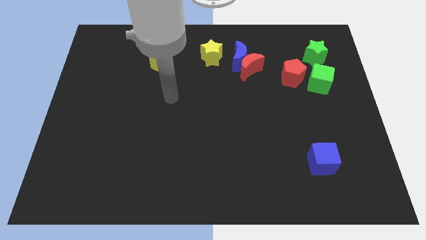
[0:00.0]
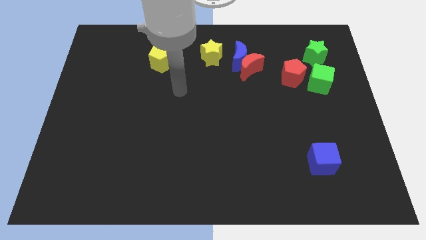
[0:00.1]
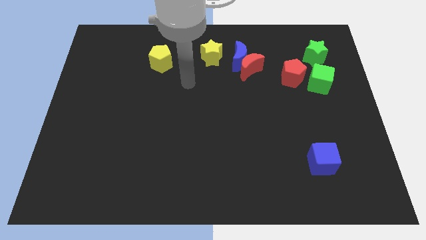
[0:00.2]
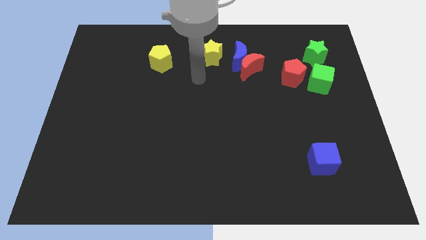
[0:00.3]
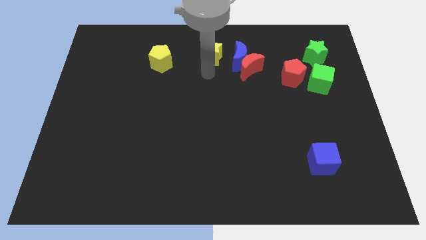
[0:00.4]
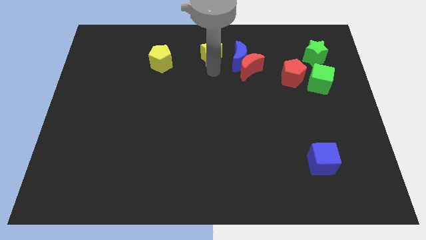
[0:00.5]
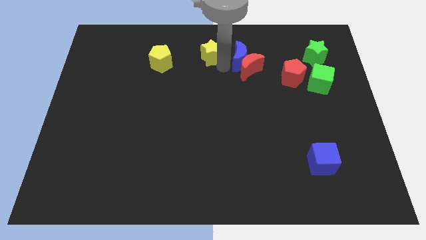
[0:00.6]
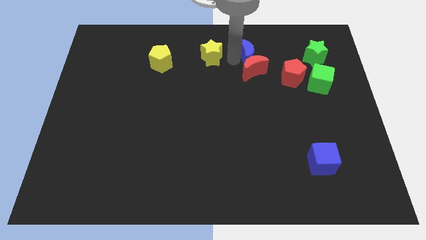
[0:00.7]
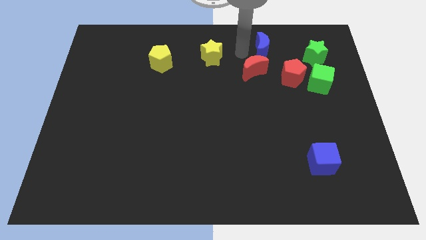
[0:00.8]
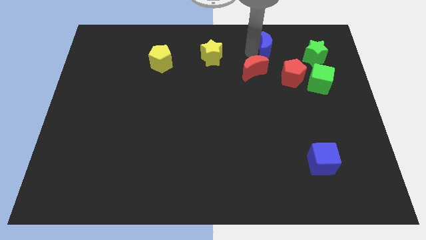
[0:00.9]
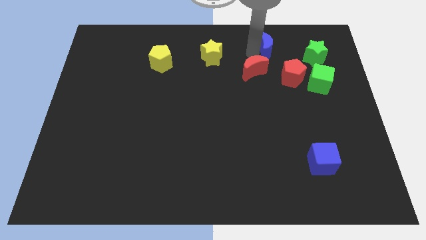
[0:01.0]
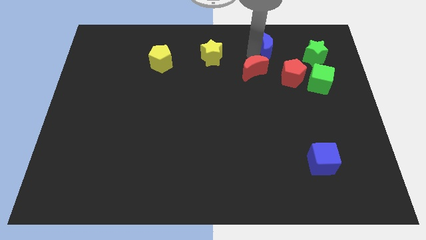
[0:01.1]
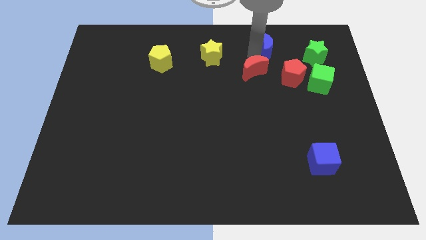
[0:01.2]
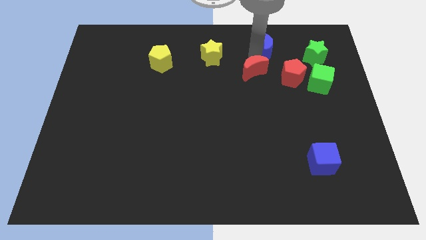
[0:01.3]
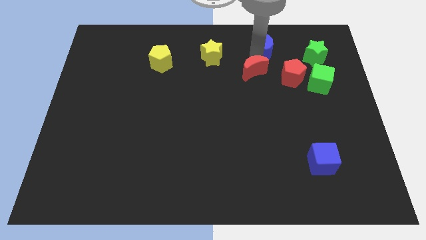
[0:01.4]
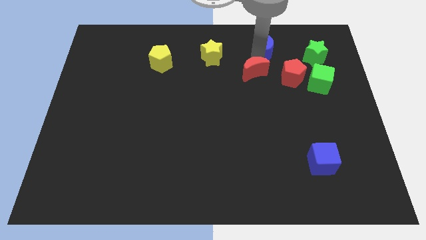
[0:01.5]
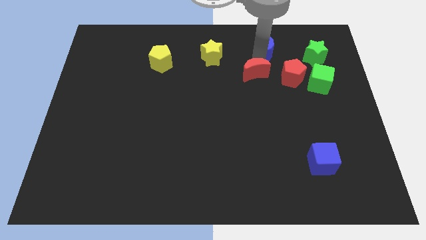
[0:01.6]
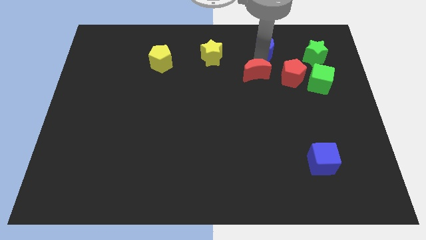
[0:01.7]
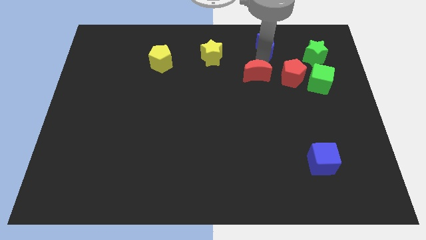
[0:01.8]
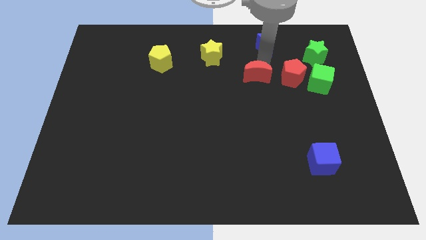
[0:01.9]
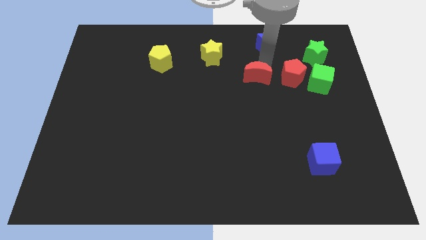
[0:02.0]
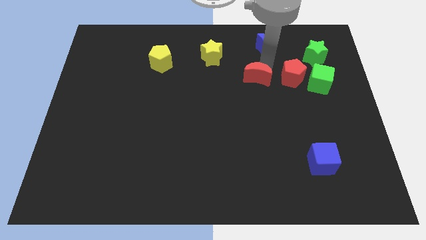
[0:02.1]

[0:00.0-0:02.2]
separate the red moon from the blue moon

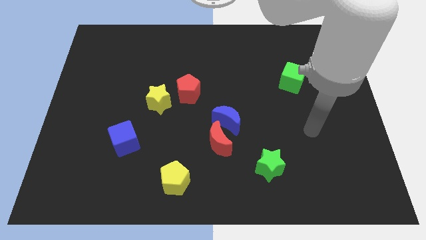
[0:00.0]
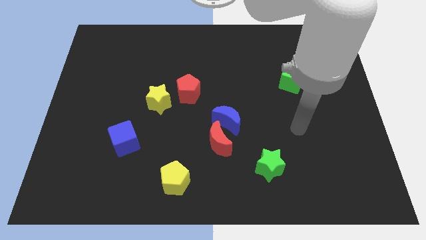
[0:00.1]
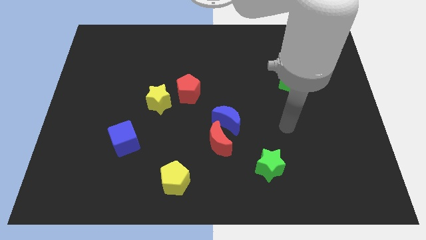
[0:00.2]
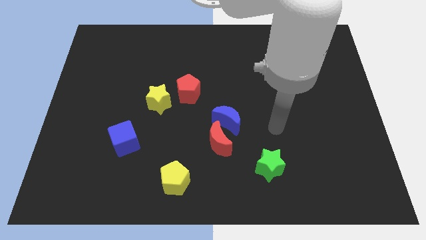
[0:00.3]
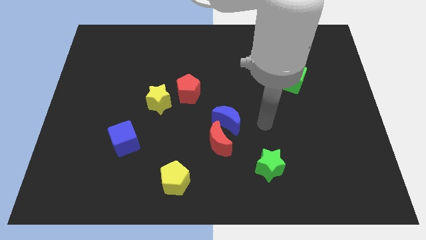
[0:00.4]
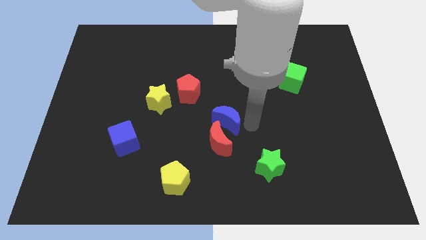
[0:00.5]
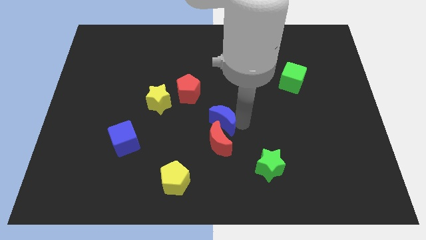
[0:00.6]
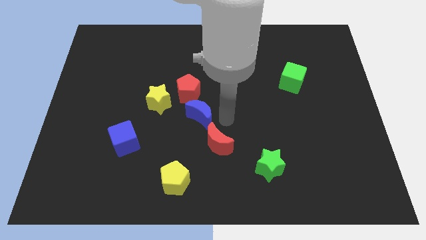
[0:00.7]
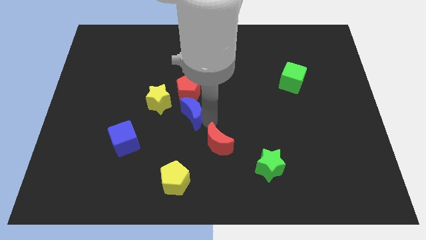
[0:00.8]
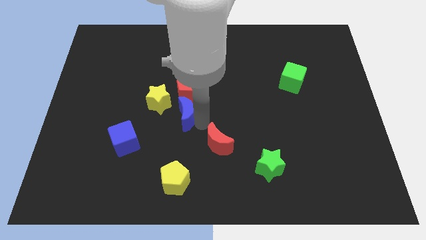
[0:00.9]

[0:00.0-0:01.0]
move the red moon away from the blue moon

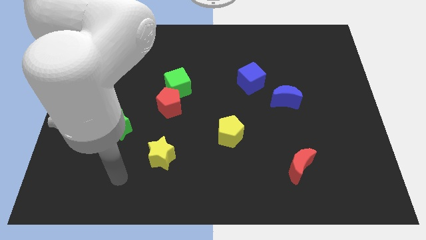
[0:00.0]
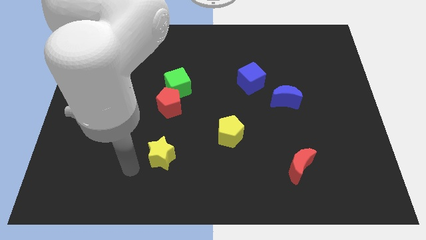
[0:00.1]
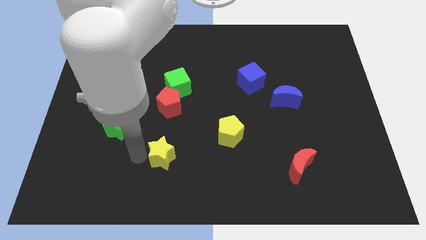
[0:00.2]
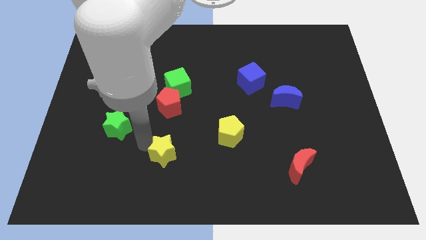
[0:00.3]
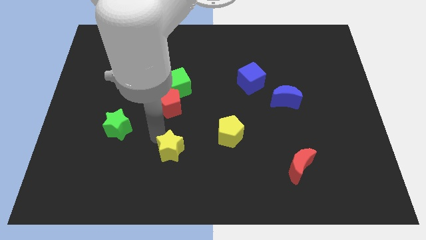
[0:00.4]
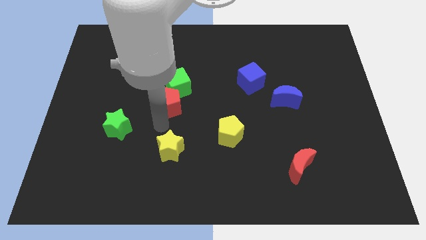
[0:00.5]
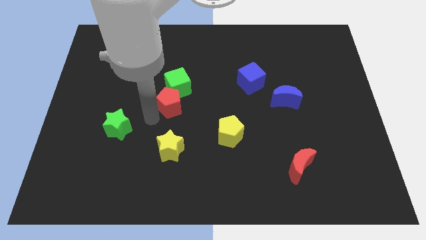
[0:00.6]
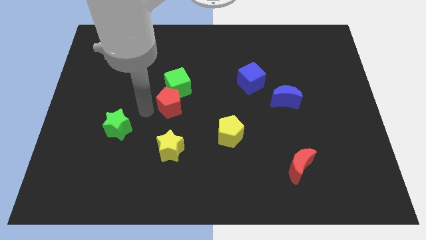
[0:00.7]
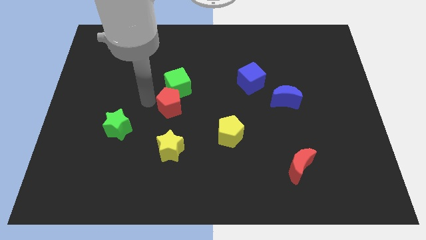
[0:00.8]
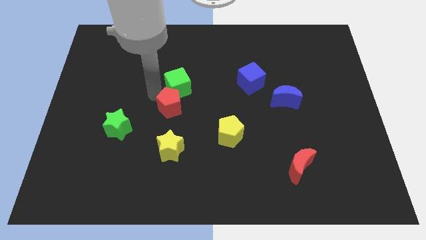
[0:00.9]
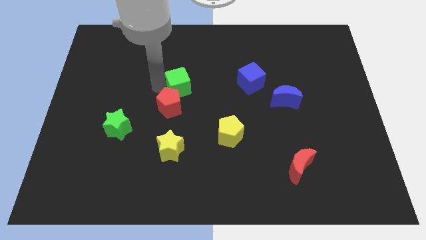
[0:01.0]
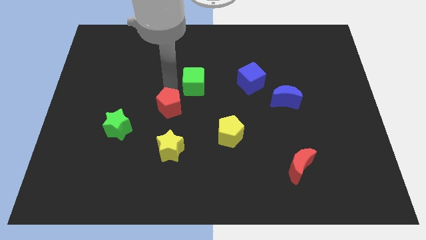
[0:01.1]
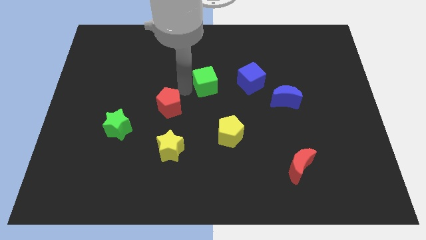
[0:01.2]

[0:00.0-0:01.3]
pull the red pentagon apart from the green cube

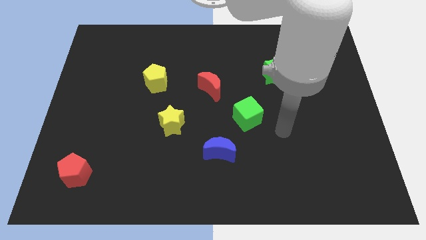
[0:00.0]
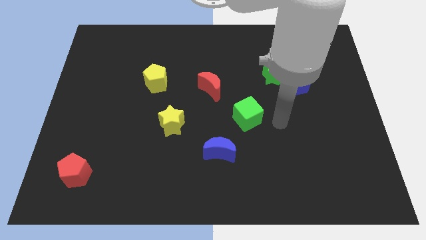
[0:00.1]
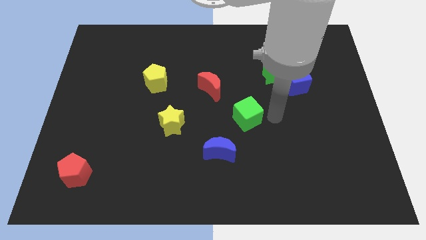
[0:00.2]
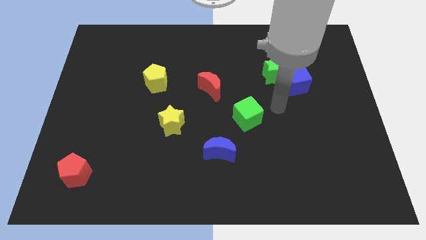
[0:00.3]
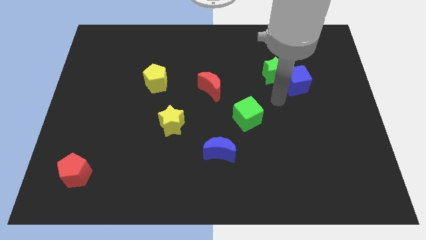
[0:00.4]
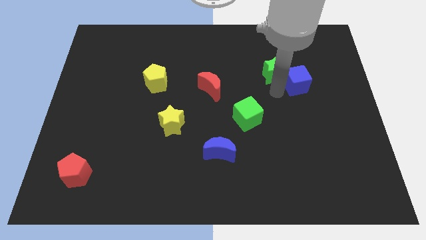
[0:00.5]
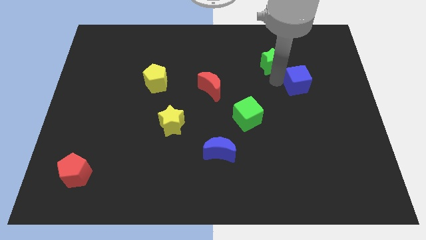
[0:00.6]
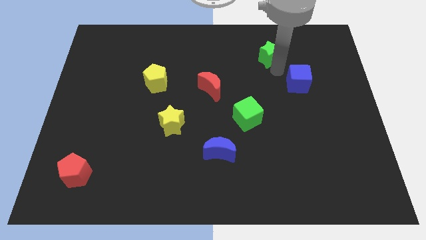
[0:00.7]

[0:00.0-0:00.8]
move the blue cube away from the green star

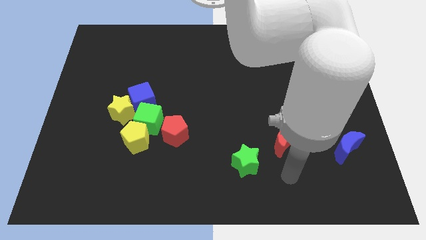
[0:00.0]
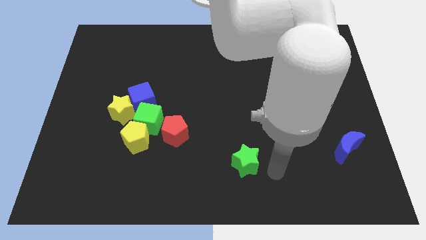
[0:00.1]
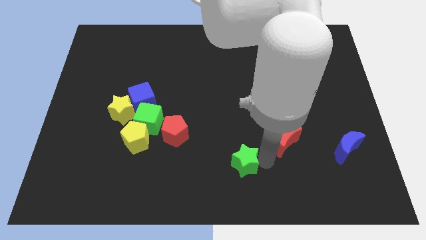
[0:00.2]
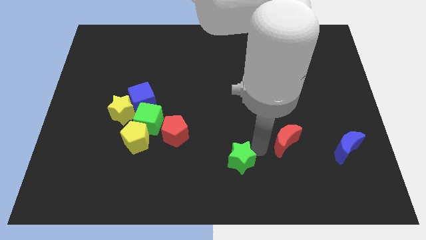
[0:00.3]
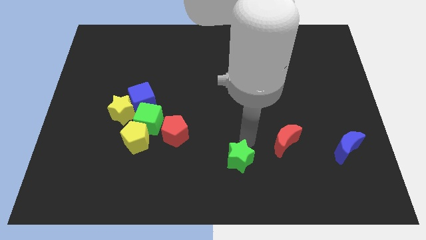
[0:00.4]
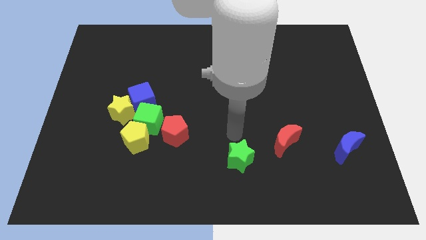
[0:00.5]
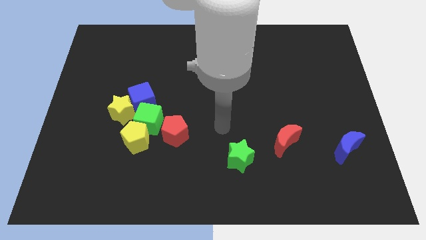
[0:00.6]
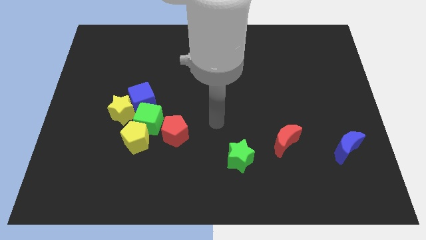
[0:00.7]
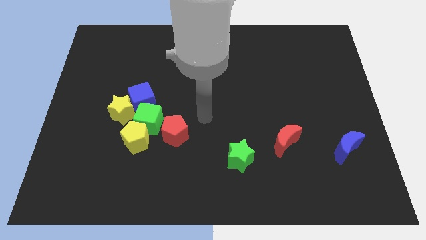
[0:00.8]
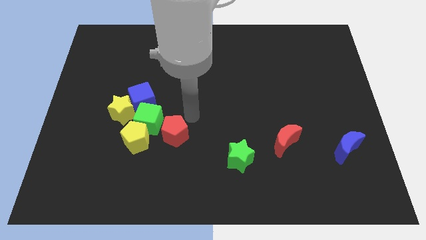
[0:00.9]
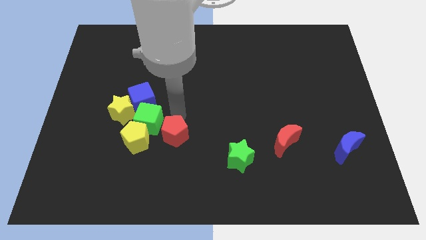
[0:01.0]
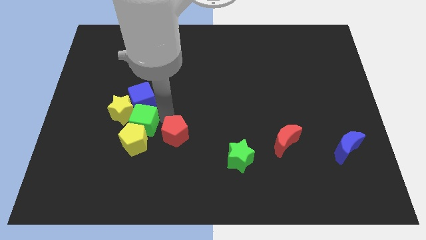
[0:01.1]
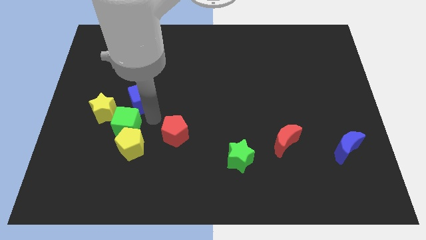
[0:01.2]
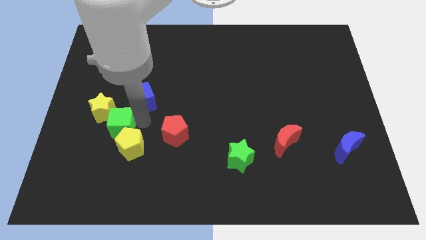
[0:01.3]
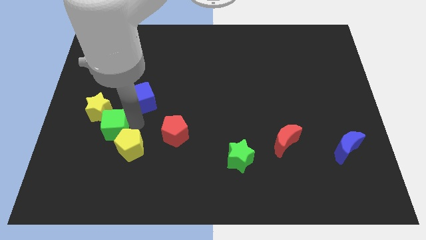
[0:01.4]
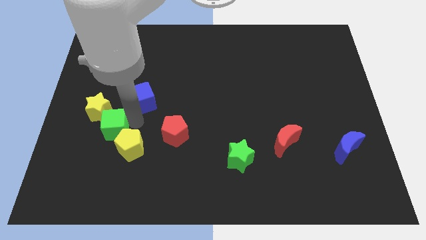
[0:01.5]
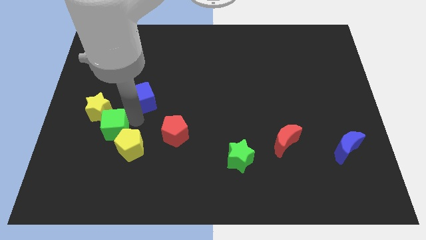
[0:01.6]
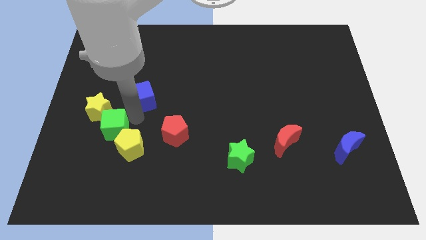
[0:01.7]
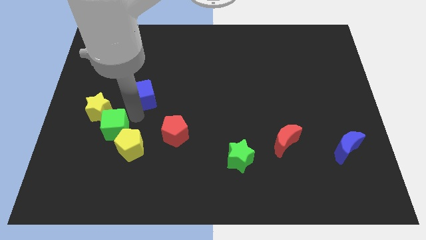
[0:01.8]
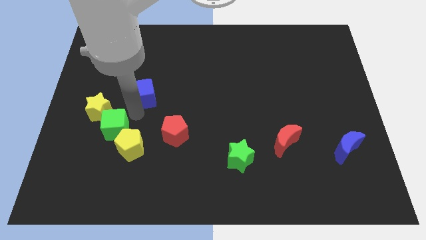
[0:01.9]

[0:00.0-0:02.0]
pull the blue cube apart from the yellow star and green cube

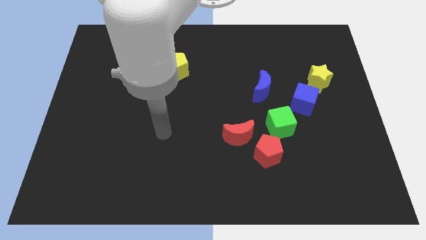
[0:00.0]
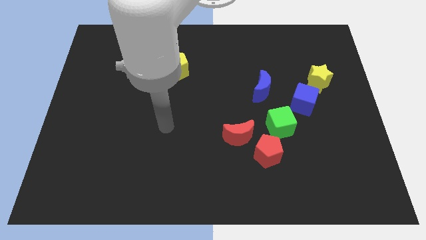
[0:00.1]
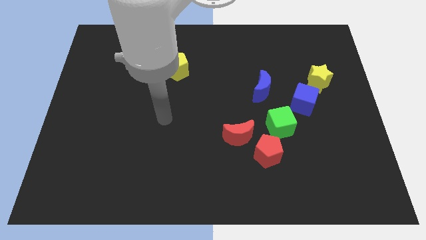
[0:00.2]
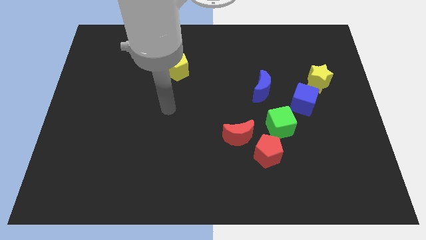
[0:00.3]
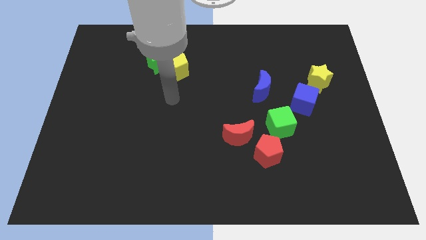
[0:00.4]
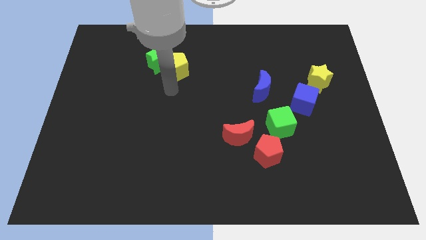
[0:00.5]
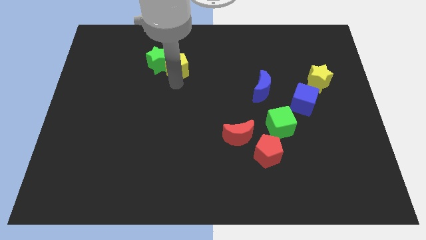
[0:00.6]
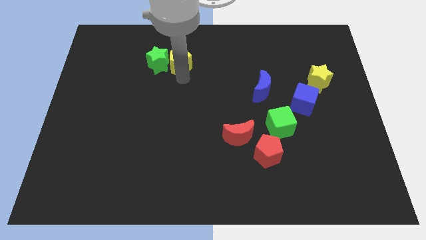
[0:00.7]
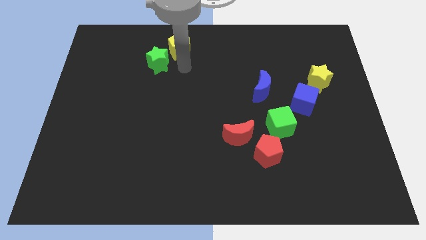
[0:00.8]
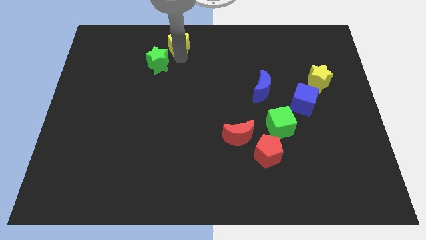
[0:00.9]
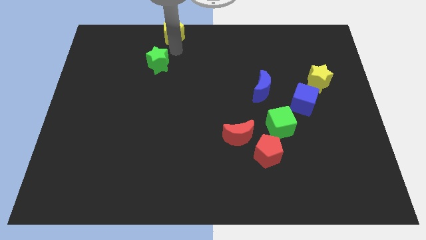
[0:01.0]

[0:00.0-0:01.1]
separate the green star from the yellow pentagon

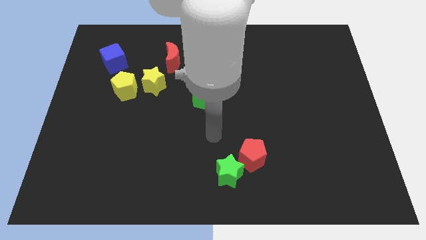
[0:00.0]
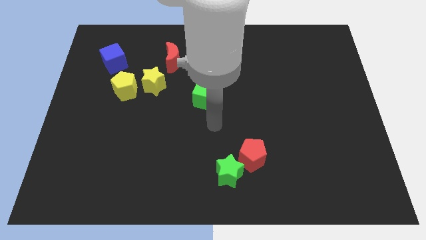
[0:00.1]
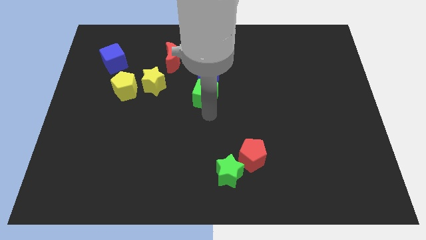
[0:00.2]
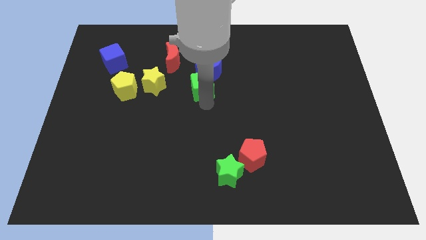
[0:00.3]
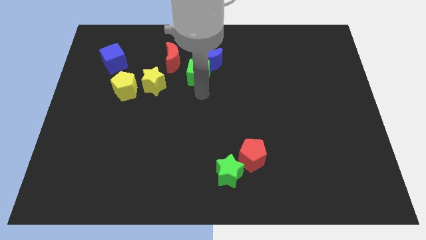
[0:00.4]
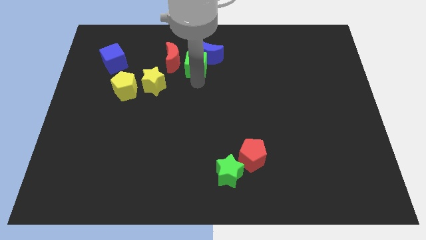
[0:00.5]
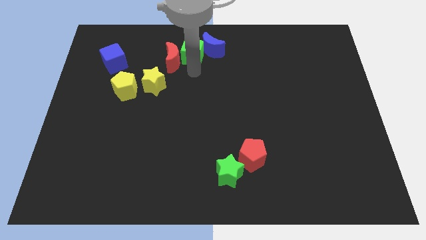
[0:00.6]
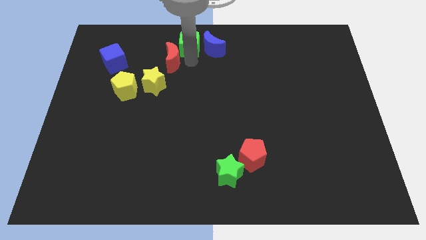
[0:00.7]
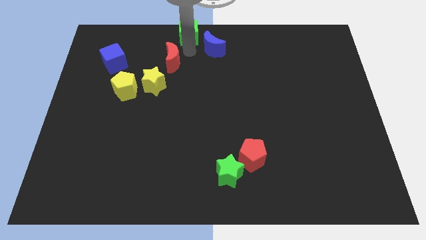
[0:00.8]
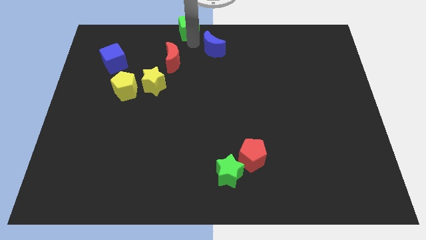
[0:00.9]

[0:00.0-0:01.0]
pull the blue moon apart from the green cube
